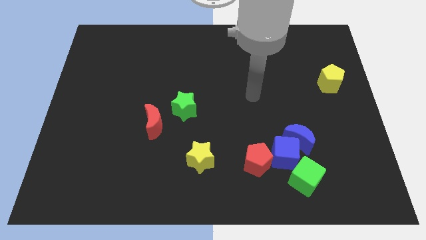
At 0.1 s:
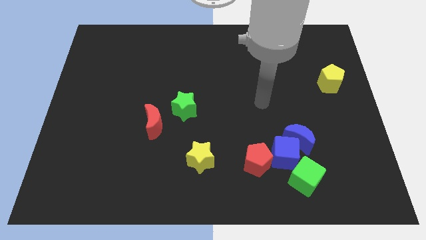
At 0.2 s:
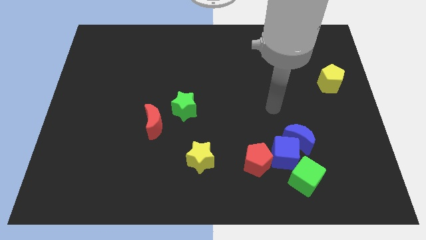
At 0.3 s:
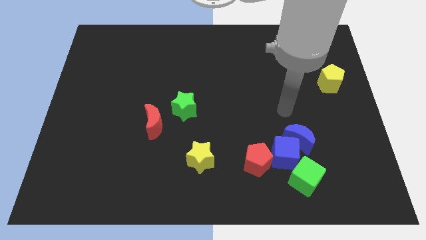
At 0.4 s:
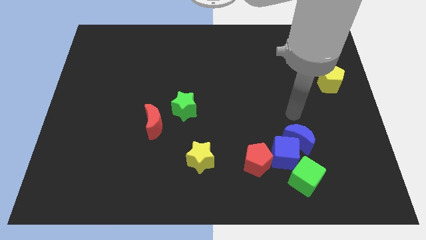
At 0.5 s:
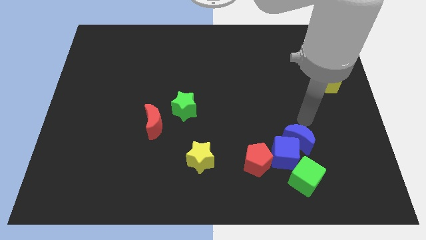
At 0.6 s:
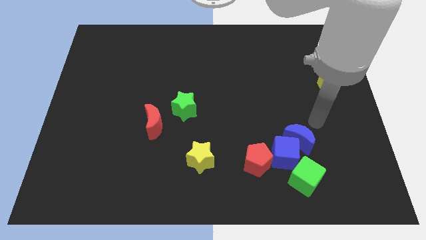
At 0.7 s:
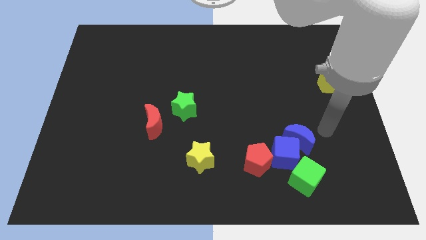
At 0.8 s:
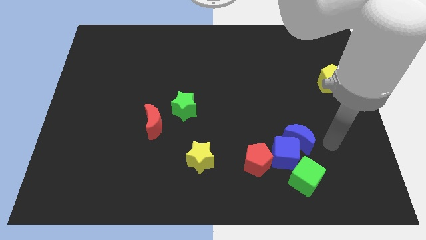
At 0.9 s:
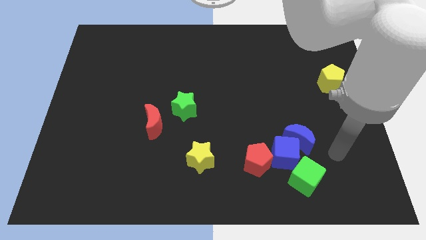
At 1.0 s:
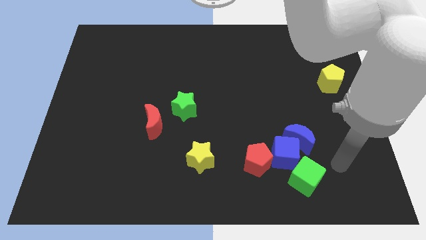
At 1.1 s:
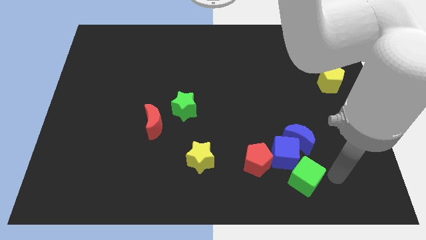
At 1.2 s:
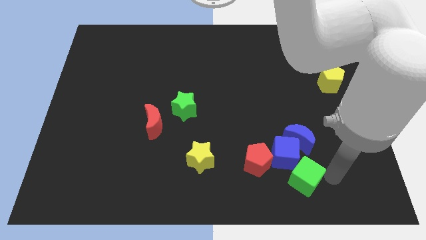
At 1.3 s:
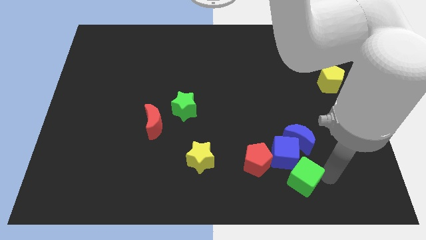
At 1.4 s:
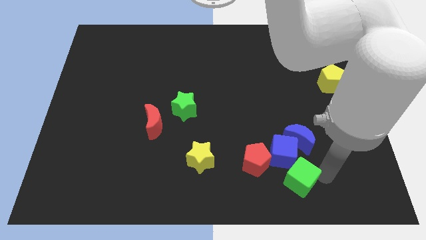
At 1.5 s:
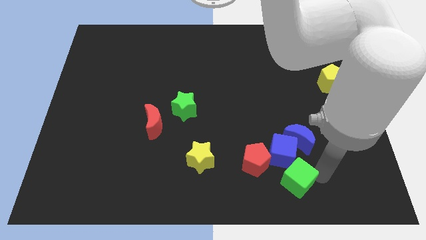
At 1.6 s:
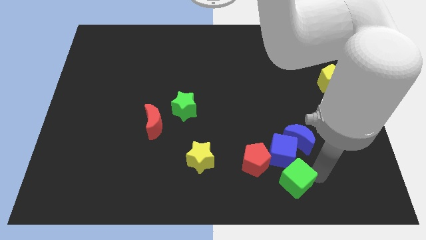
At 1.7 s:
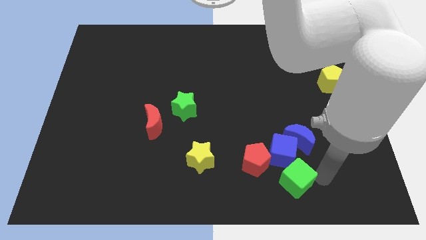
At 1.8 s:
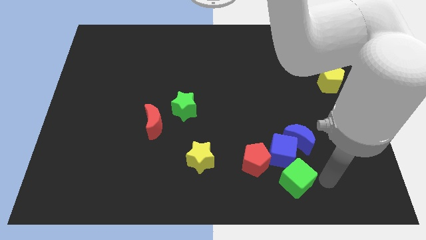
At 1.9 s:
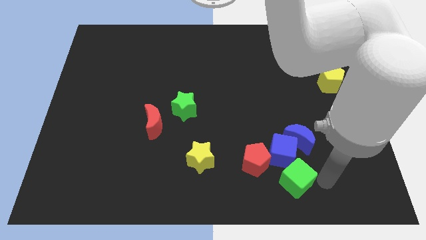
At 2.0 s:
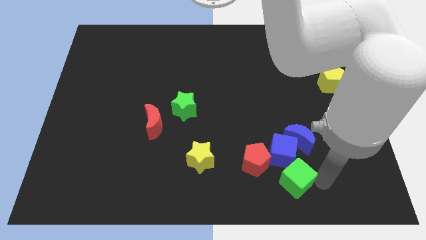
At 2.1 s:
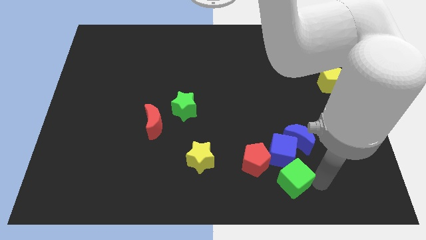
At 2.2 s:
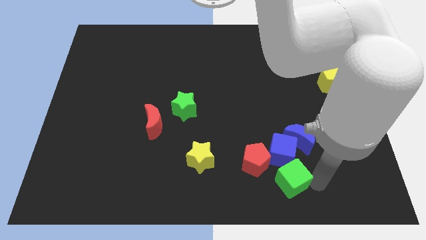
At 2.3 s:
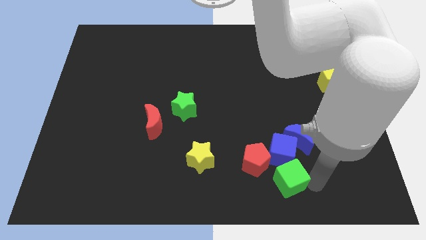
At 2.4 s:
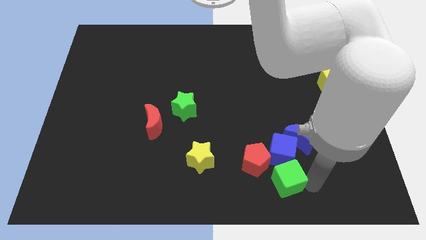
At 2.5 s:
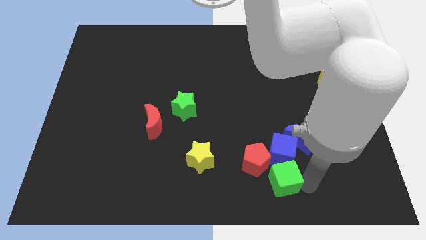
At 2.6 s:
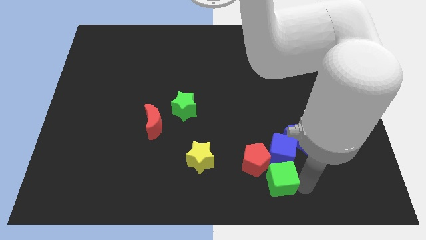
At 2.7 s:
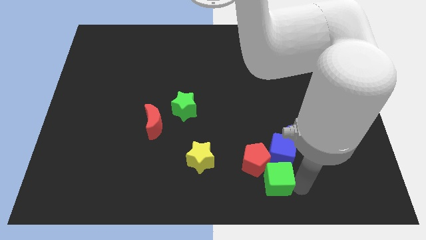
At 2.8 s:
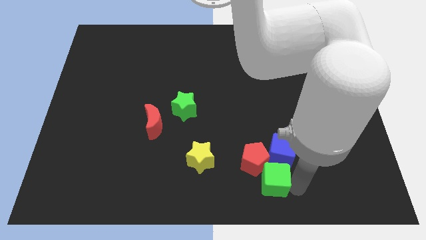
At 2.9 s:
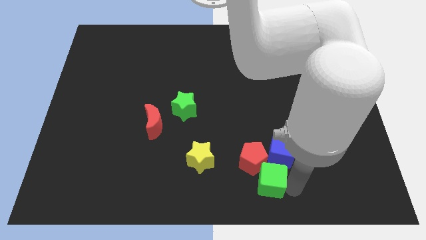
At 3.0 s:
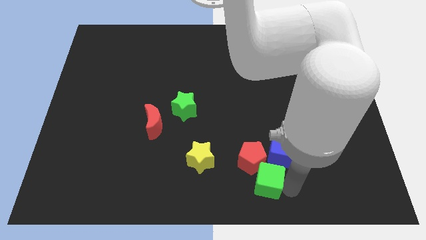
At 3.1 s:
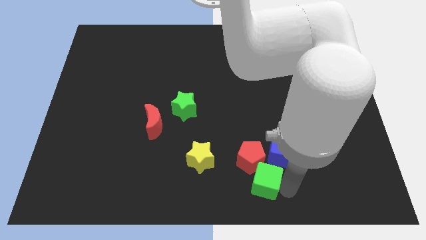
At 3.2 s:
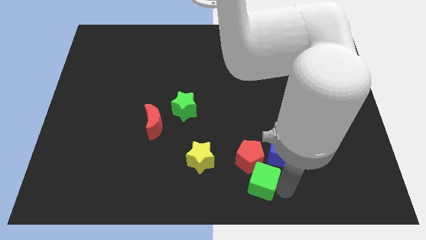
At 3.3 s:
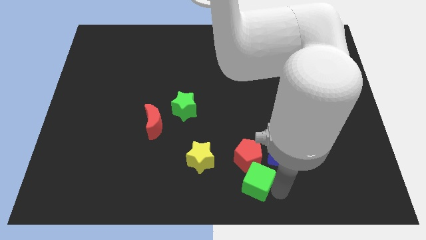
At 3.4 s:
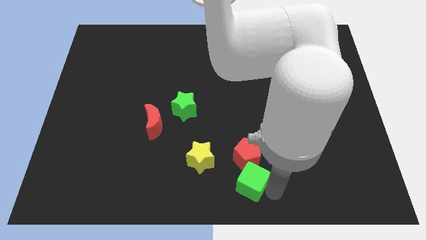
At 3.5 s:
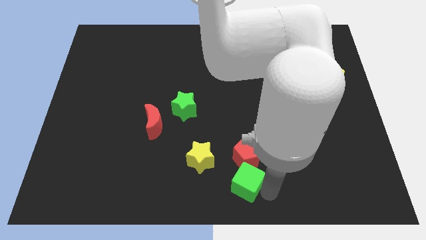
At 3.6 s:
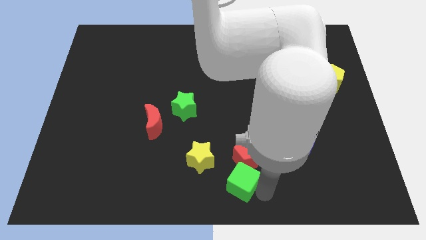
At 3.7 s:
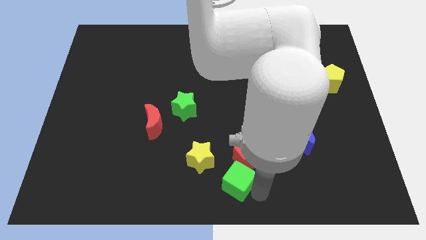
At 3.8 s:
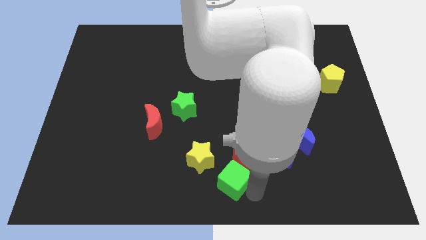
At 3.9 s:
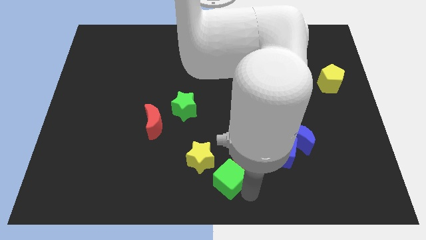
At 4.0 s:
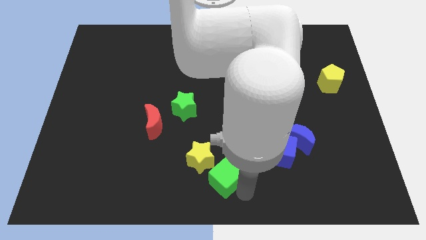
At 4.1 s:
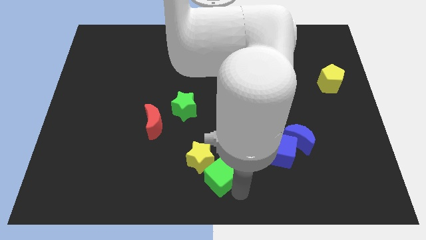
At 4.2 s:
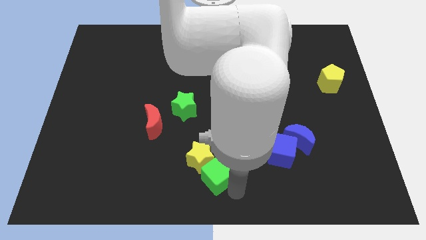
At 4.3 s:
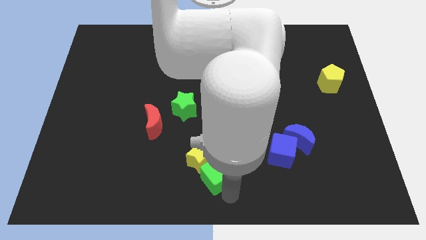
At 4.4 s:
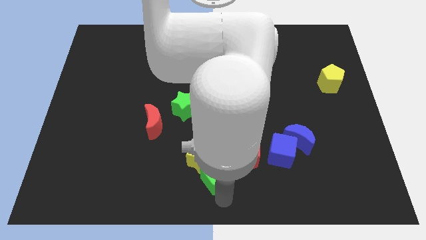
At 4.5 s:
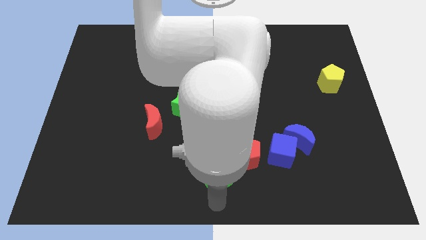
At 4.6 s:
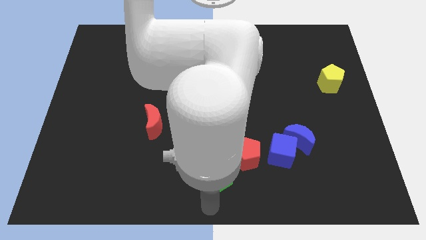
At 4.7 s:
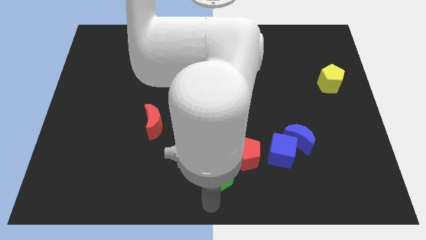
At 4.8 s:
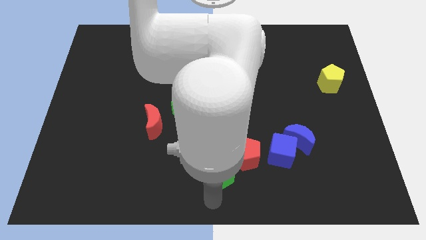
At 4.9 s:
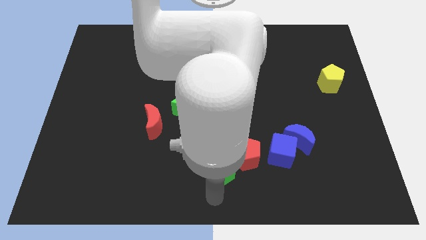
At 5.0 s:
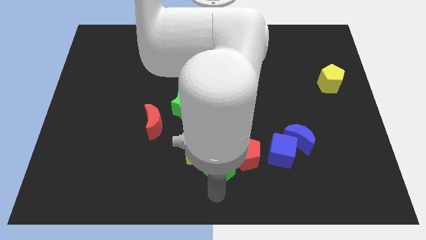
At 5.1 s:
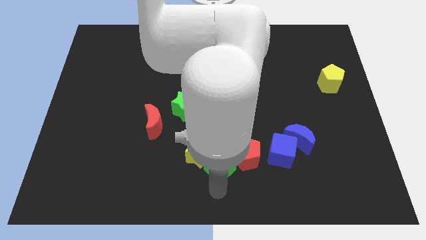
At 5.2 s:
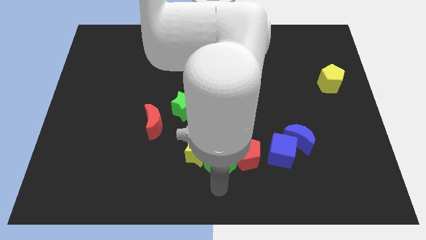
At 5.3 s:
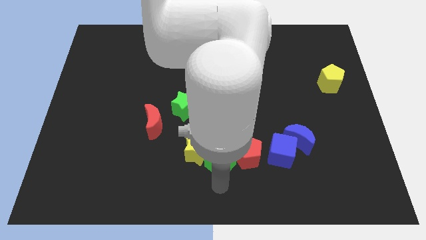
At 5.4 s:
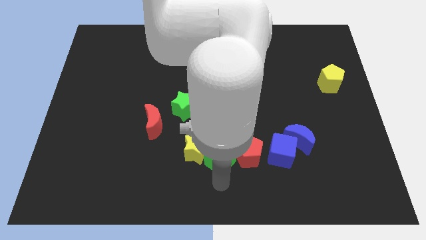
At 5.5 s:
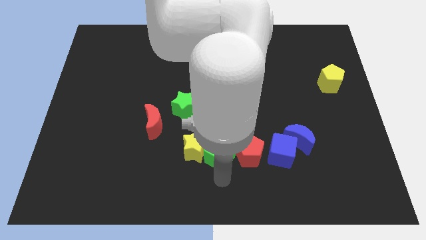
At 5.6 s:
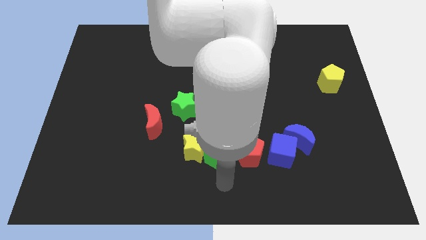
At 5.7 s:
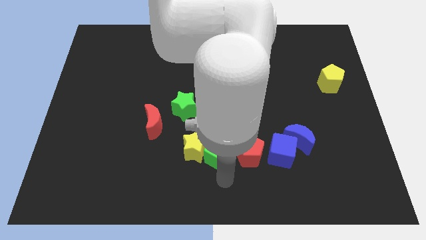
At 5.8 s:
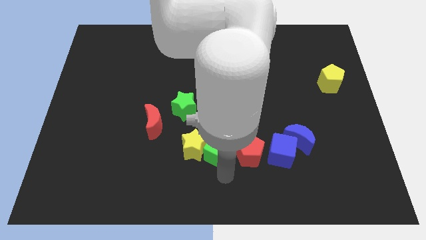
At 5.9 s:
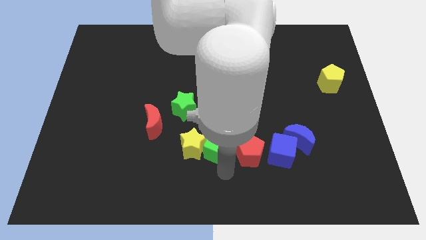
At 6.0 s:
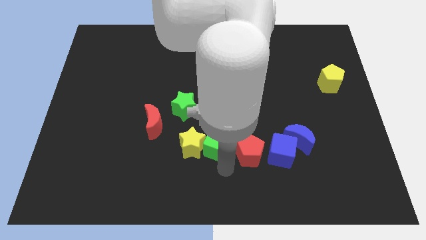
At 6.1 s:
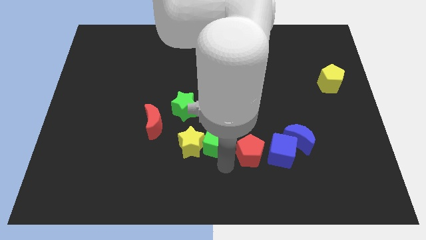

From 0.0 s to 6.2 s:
put the green cube to the center of the board
